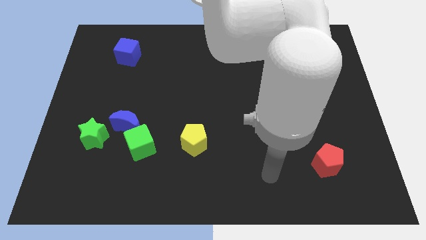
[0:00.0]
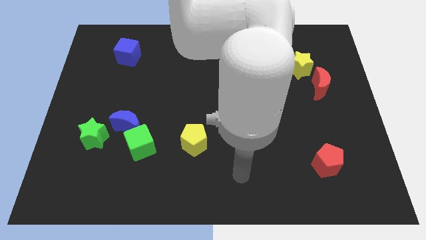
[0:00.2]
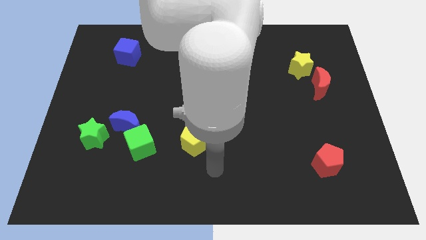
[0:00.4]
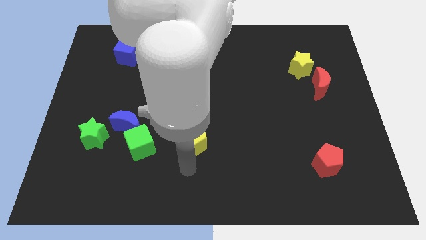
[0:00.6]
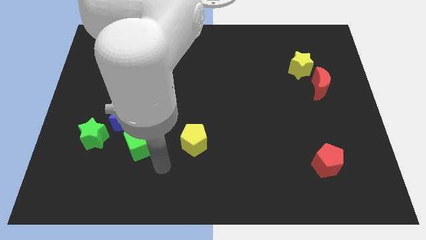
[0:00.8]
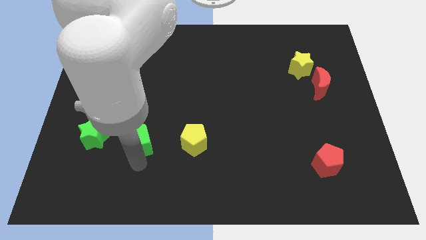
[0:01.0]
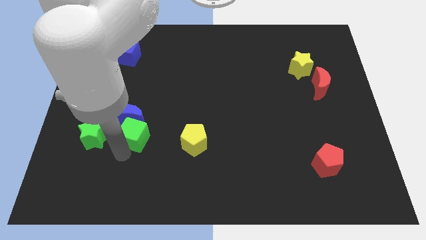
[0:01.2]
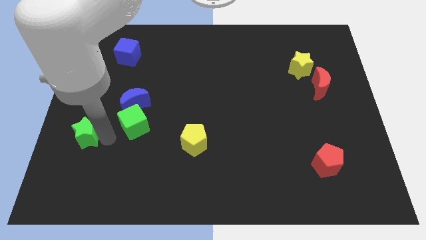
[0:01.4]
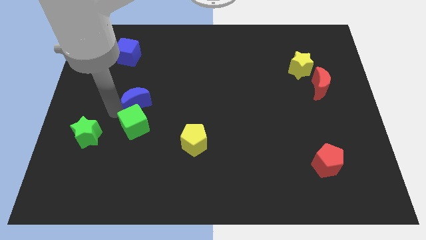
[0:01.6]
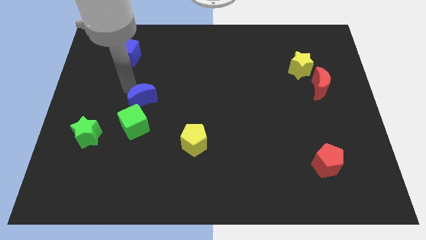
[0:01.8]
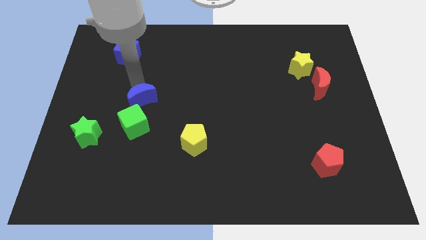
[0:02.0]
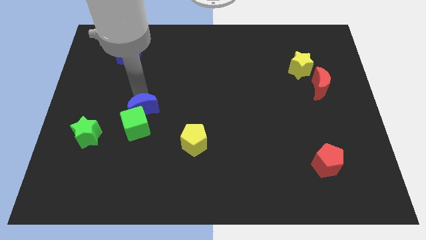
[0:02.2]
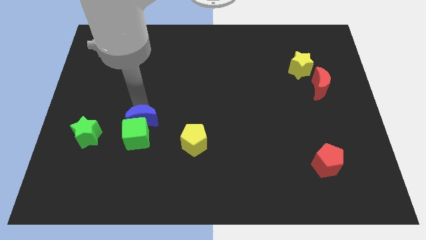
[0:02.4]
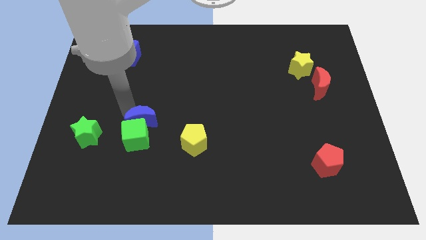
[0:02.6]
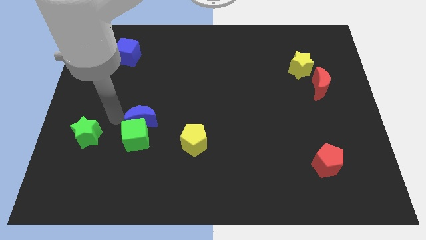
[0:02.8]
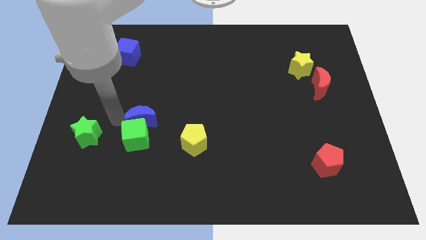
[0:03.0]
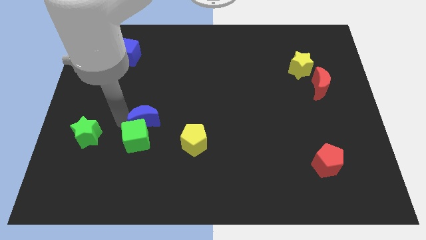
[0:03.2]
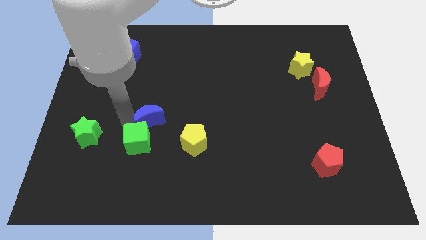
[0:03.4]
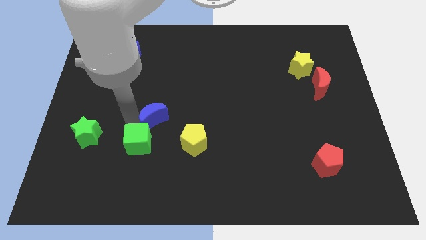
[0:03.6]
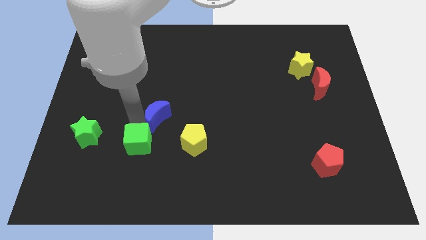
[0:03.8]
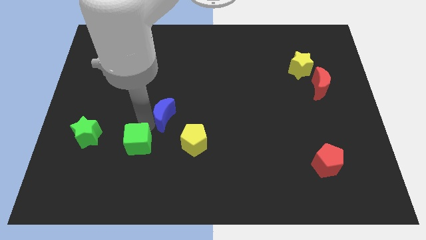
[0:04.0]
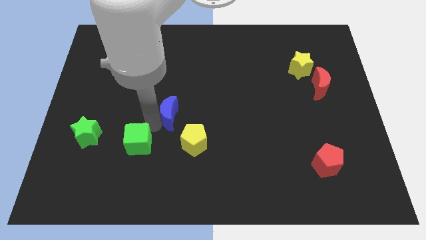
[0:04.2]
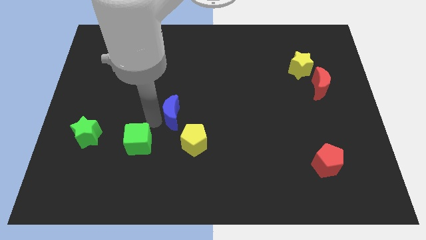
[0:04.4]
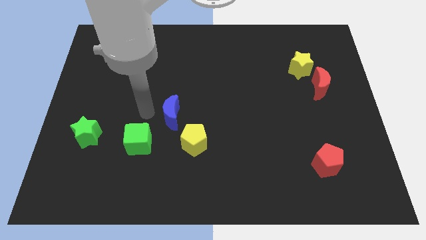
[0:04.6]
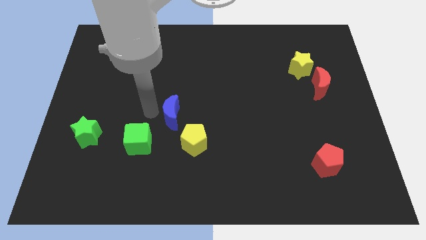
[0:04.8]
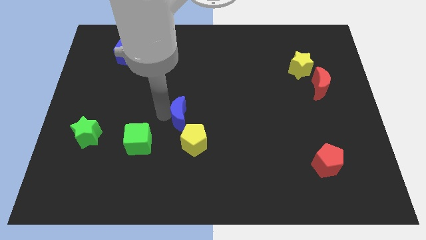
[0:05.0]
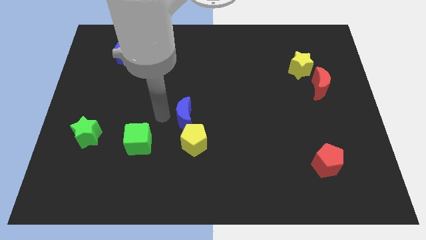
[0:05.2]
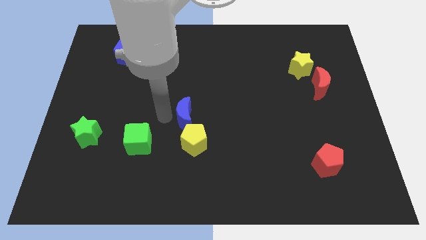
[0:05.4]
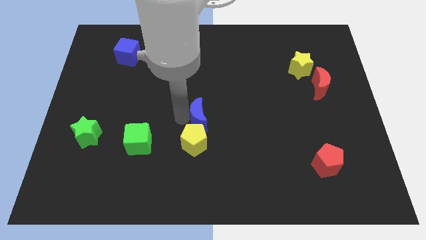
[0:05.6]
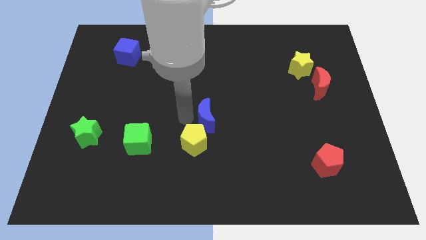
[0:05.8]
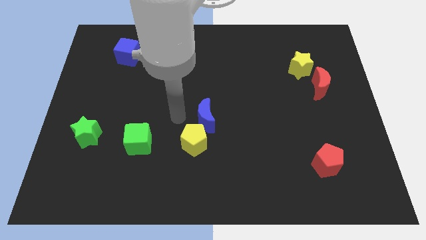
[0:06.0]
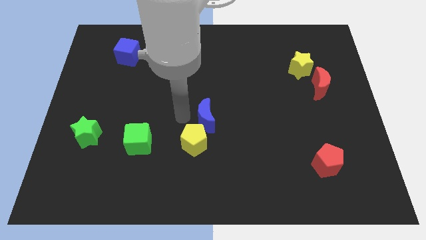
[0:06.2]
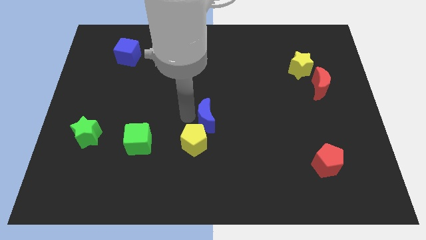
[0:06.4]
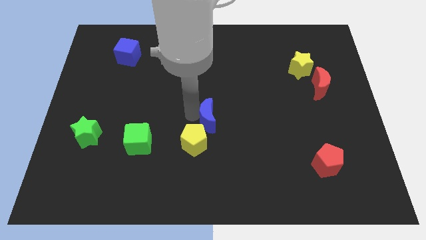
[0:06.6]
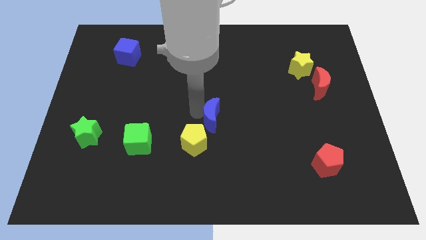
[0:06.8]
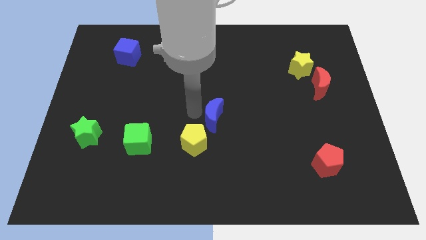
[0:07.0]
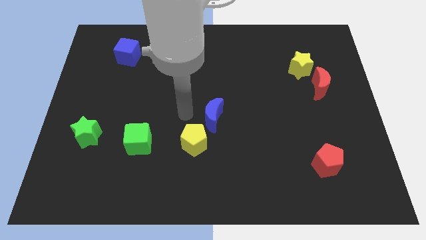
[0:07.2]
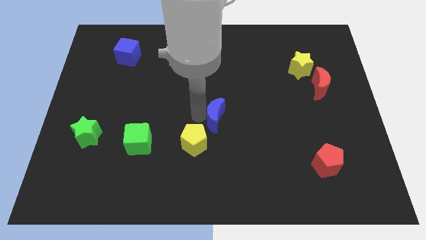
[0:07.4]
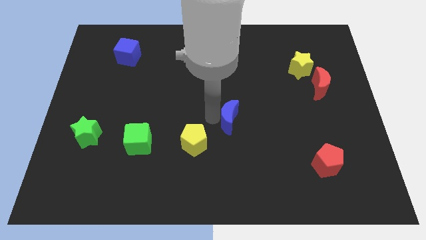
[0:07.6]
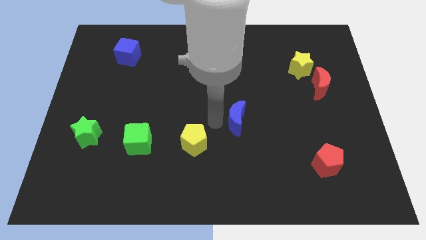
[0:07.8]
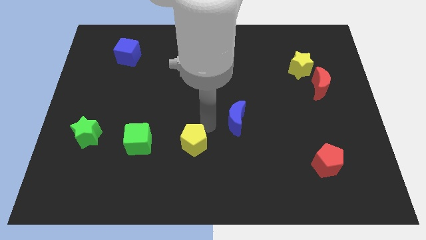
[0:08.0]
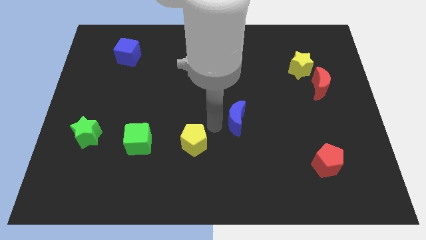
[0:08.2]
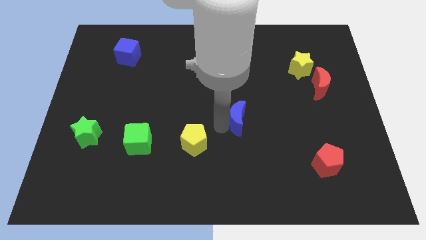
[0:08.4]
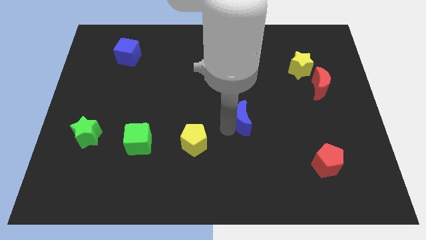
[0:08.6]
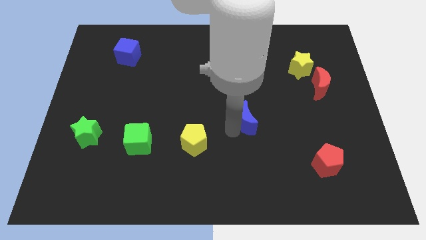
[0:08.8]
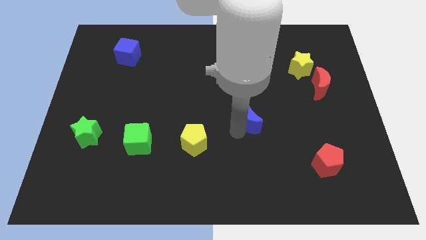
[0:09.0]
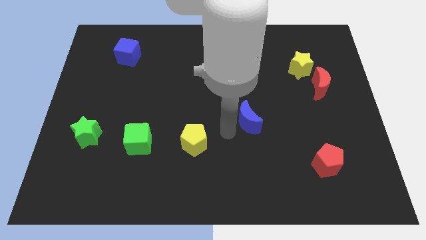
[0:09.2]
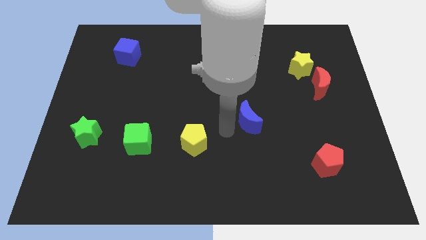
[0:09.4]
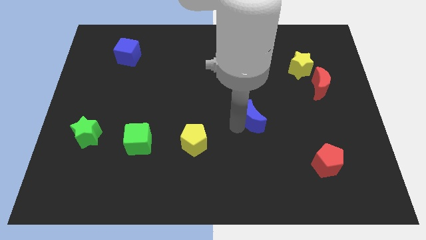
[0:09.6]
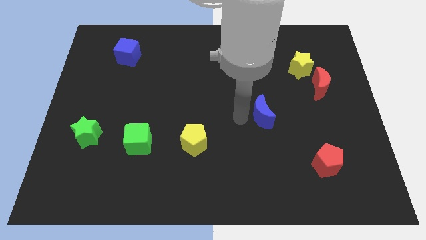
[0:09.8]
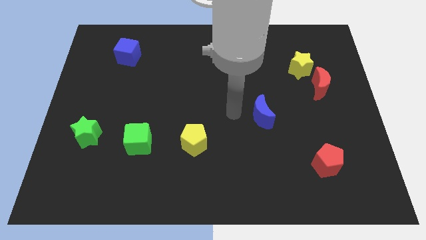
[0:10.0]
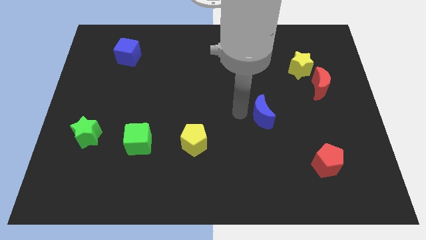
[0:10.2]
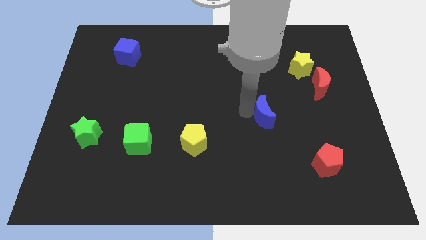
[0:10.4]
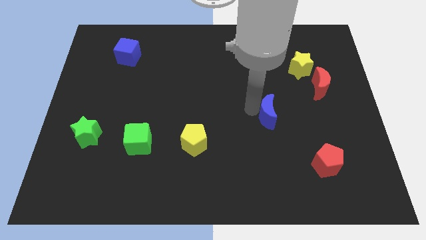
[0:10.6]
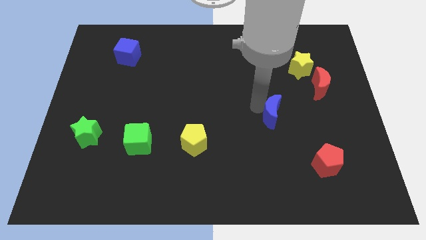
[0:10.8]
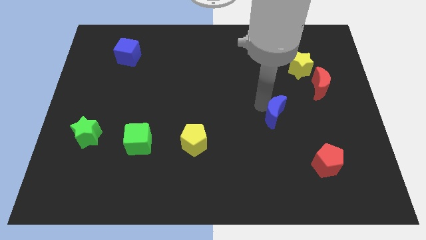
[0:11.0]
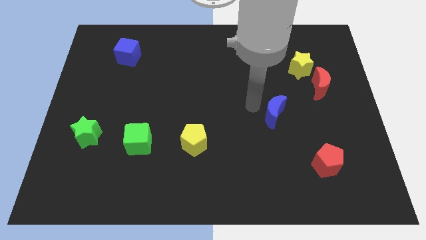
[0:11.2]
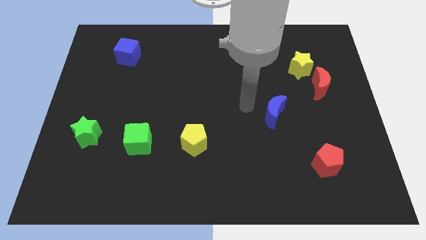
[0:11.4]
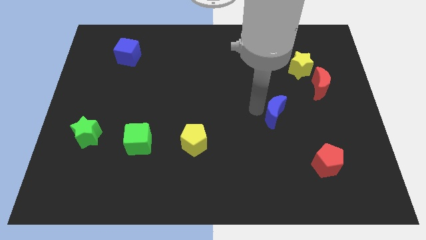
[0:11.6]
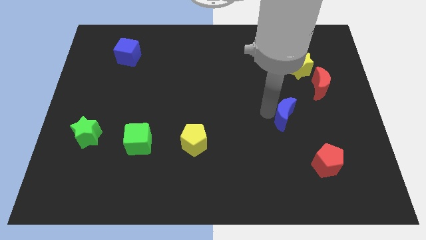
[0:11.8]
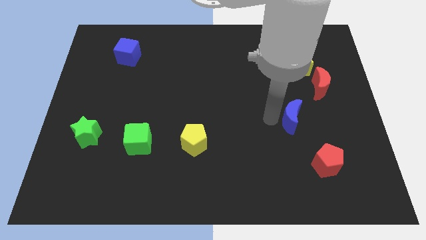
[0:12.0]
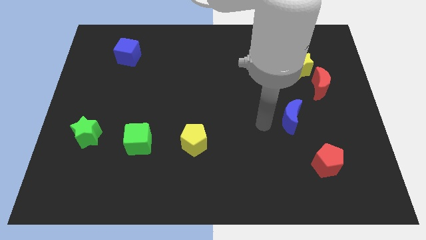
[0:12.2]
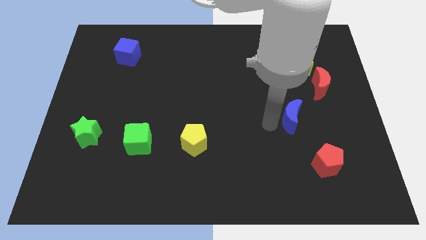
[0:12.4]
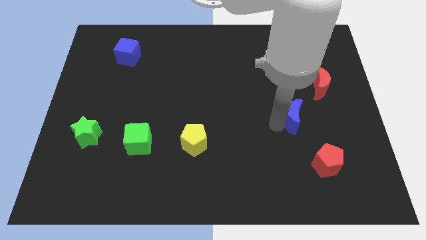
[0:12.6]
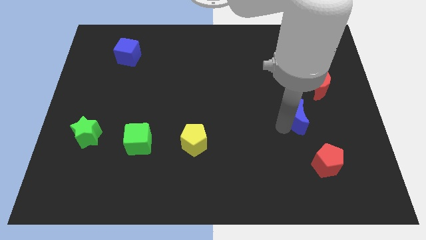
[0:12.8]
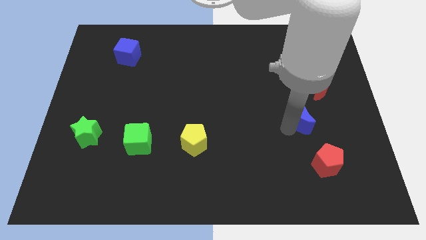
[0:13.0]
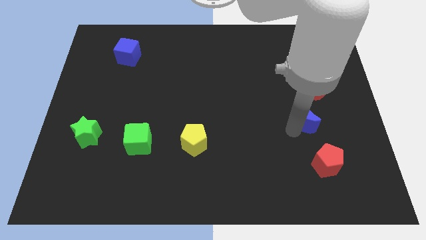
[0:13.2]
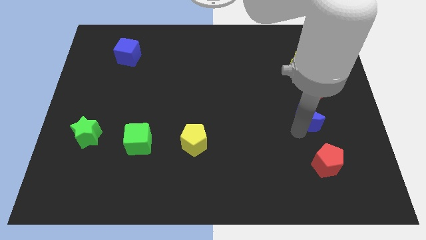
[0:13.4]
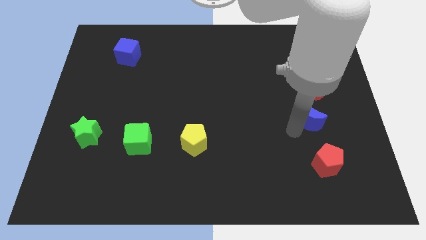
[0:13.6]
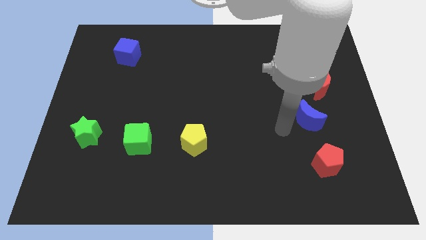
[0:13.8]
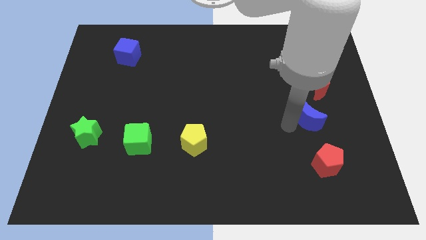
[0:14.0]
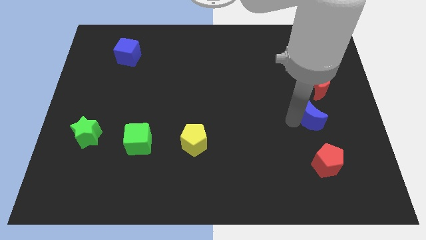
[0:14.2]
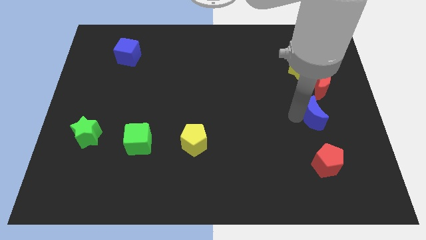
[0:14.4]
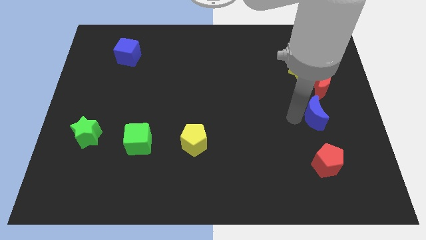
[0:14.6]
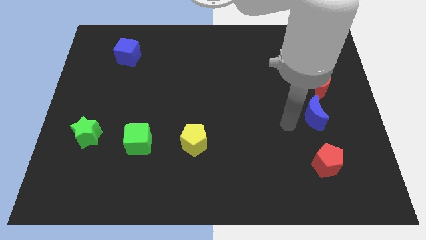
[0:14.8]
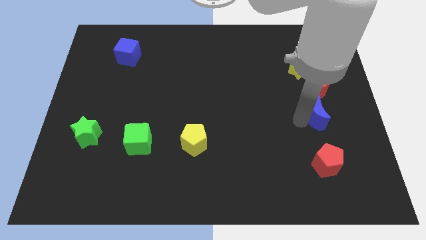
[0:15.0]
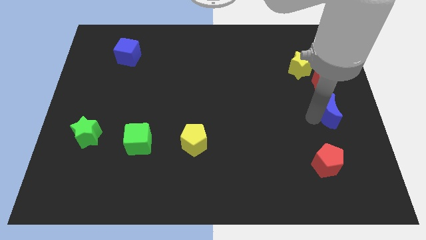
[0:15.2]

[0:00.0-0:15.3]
push the blue moon to the center right
